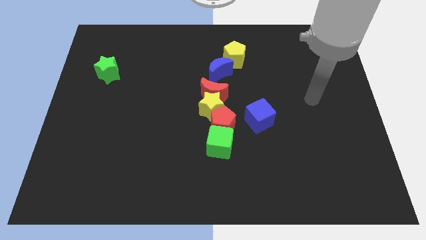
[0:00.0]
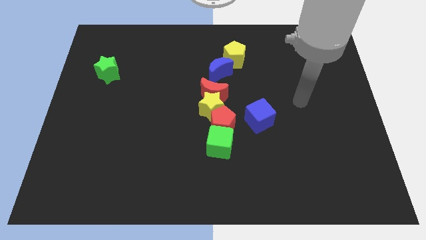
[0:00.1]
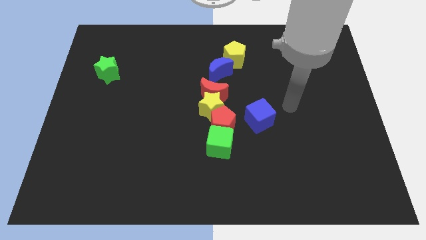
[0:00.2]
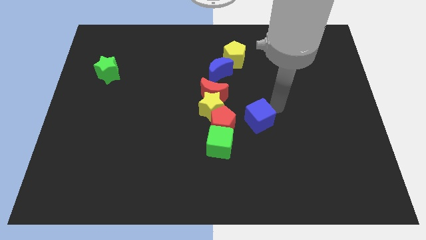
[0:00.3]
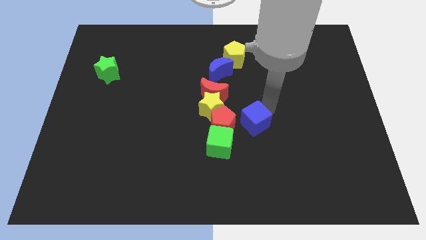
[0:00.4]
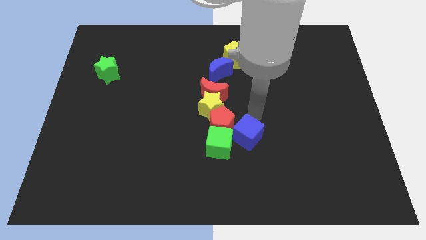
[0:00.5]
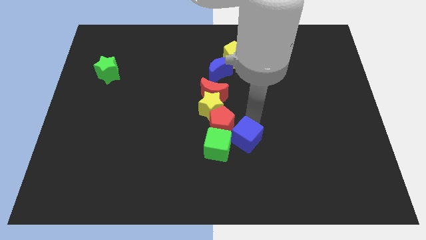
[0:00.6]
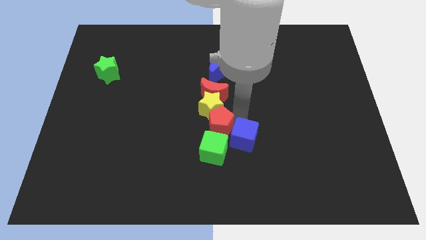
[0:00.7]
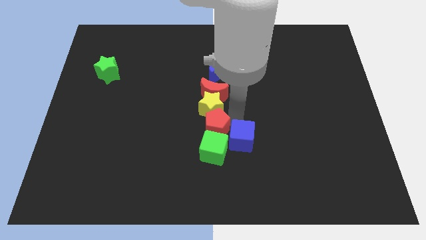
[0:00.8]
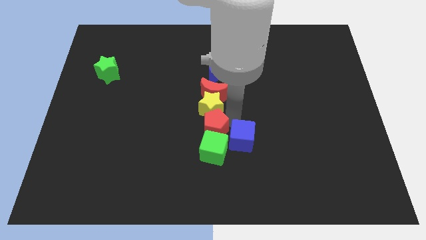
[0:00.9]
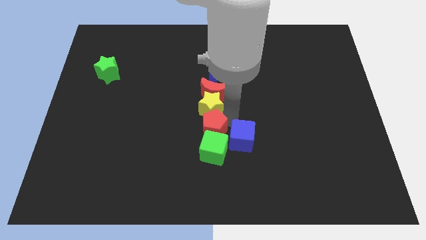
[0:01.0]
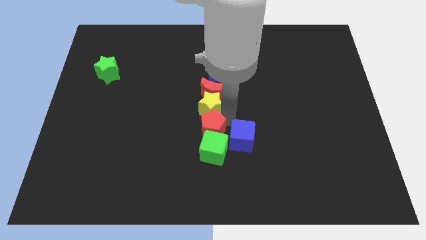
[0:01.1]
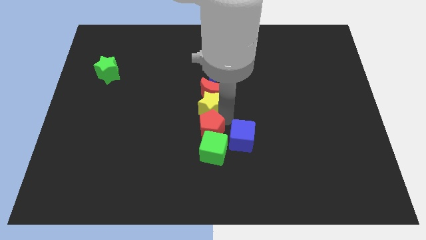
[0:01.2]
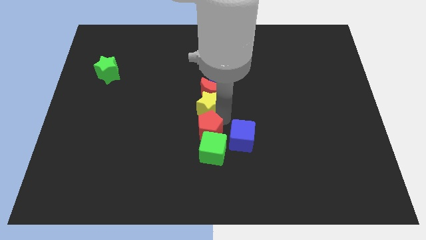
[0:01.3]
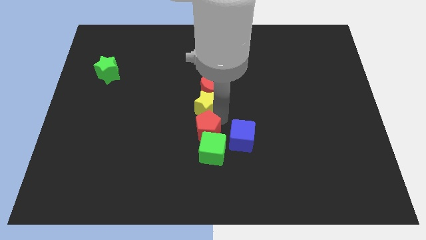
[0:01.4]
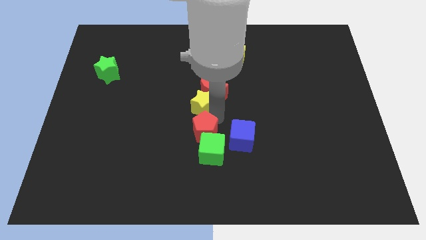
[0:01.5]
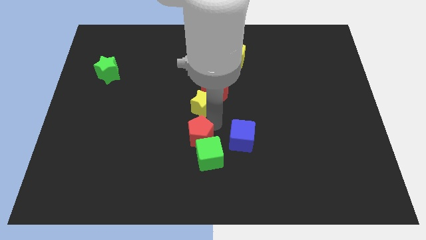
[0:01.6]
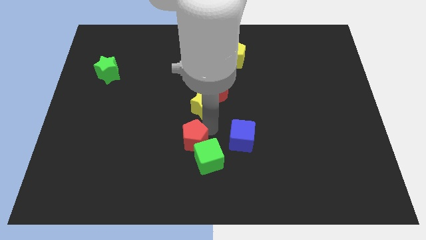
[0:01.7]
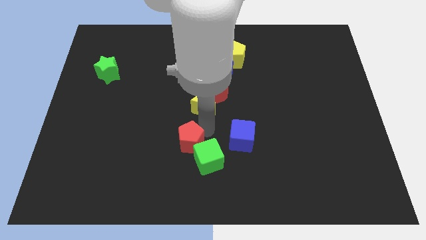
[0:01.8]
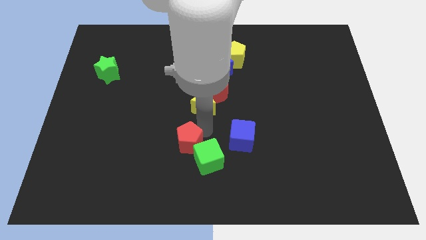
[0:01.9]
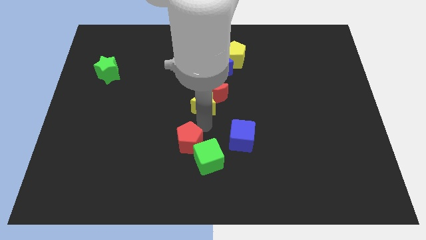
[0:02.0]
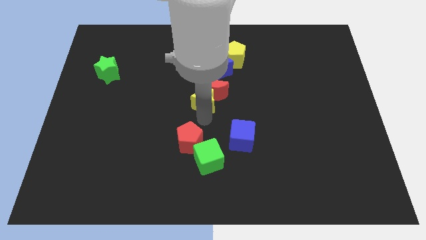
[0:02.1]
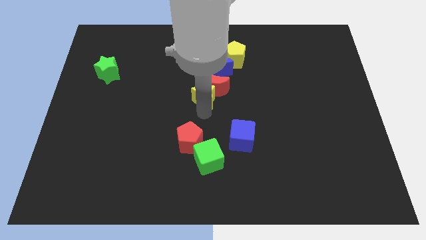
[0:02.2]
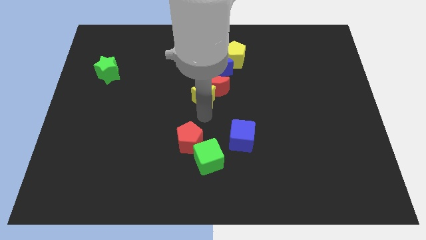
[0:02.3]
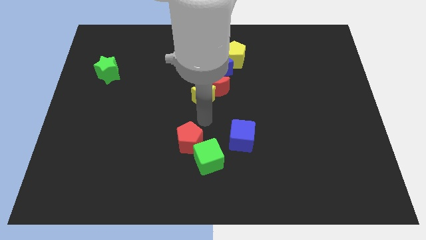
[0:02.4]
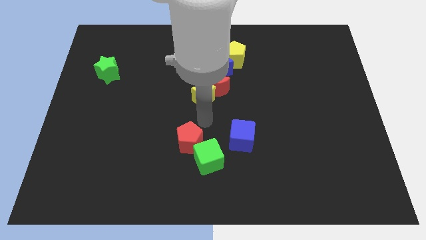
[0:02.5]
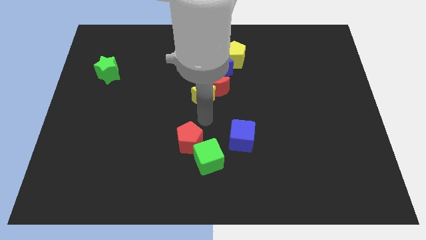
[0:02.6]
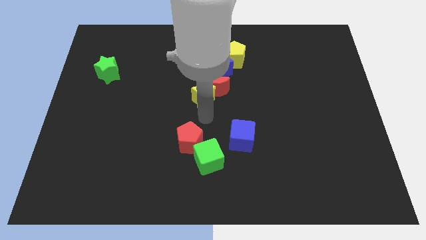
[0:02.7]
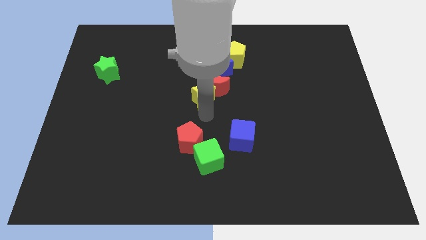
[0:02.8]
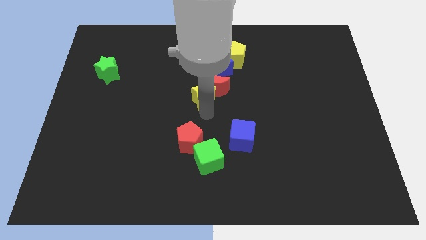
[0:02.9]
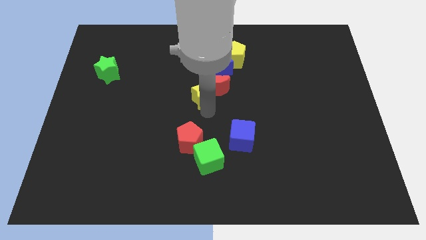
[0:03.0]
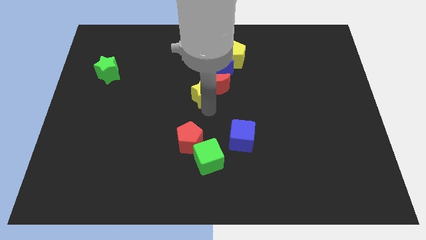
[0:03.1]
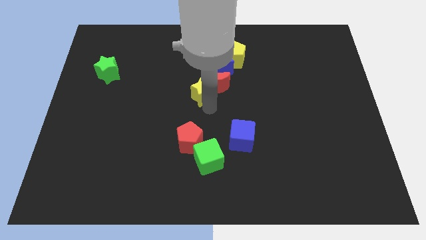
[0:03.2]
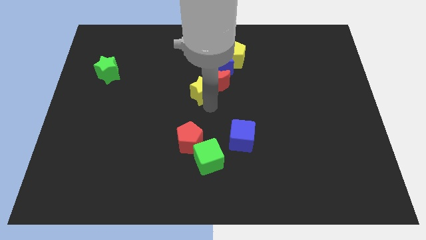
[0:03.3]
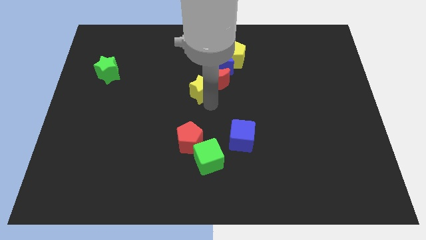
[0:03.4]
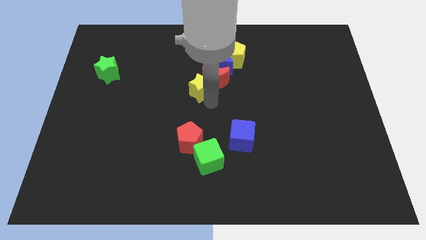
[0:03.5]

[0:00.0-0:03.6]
pull the yellow star apart from the group

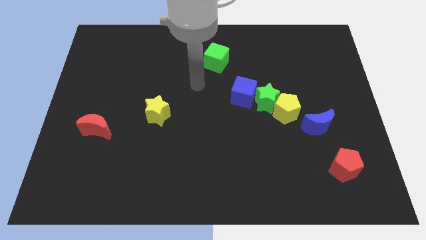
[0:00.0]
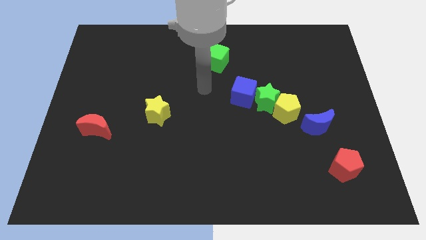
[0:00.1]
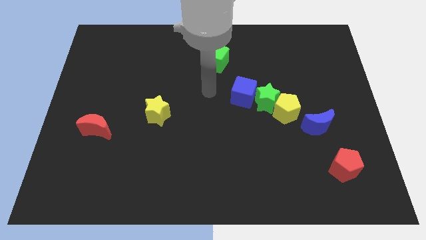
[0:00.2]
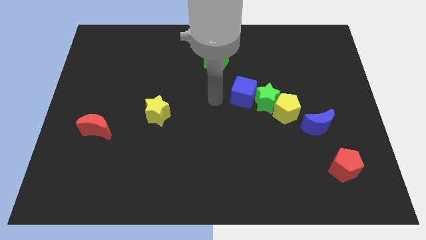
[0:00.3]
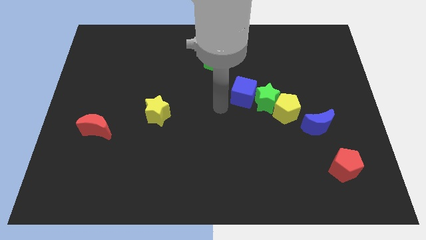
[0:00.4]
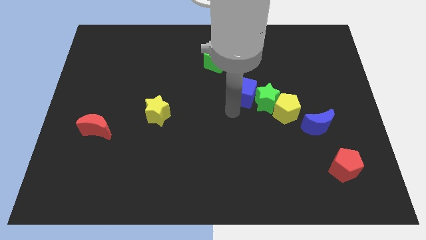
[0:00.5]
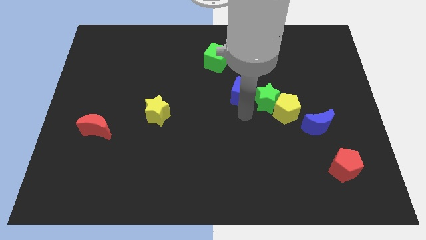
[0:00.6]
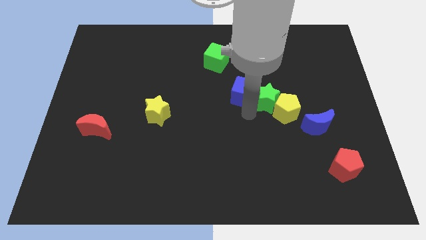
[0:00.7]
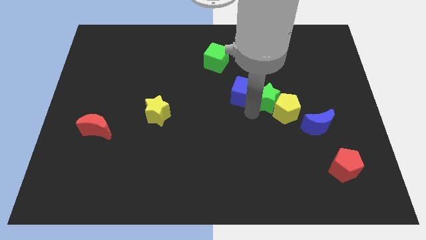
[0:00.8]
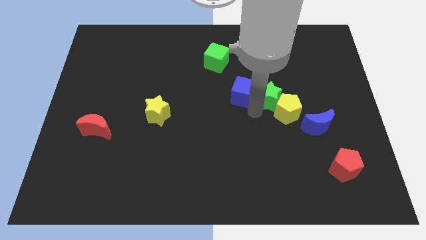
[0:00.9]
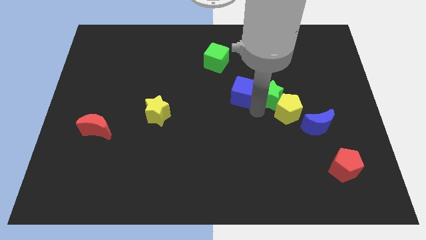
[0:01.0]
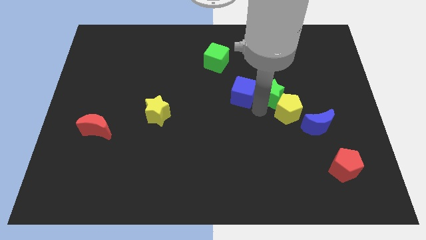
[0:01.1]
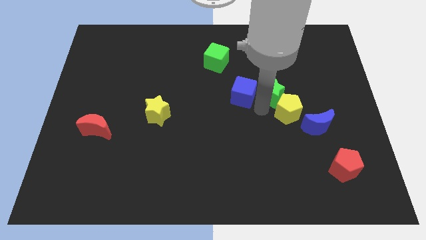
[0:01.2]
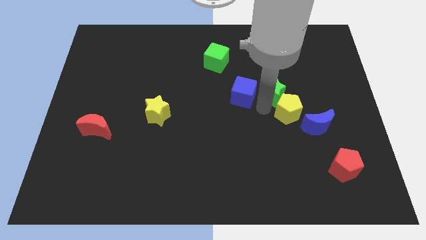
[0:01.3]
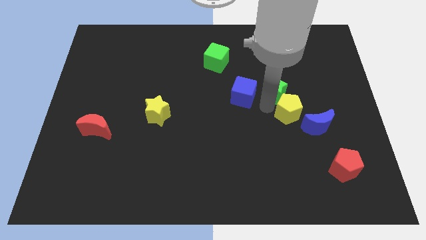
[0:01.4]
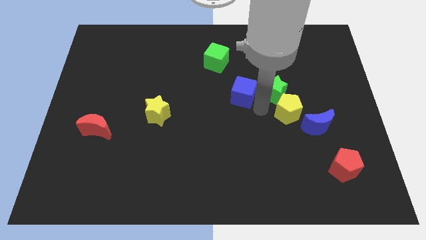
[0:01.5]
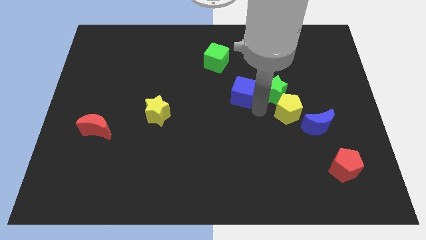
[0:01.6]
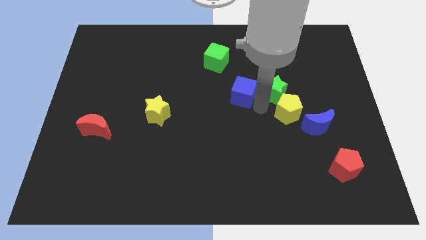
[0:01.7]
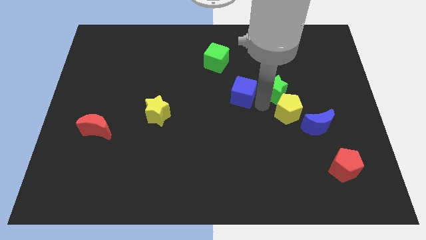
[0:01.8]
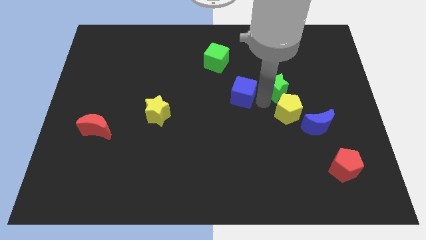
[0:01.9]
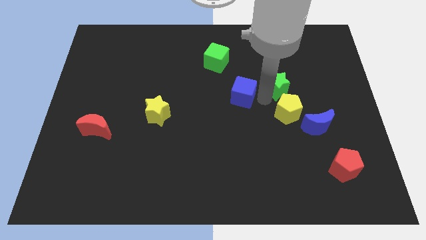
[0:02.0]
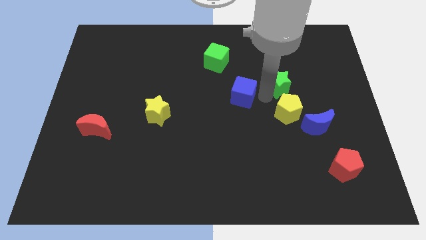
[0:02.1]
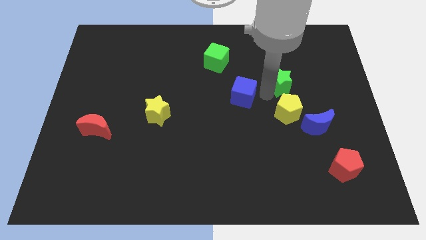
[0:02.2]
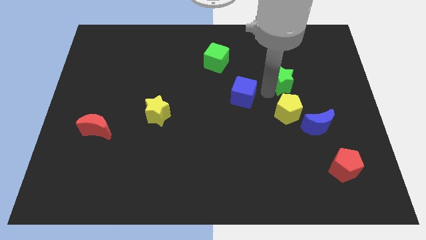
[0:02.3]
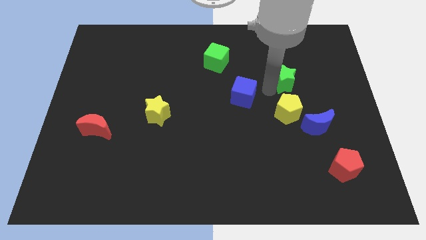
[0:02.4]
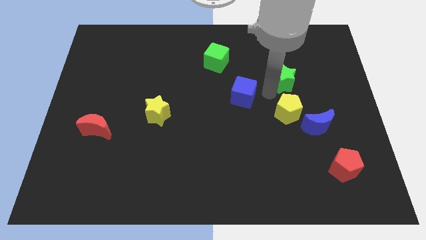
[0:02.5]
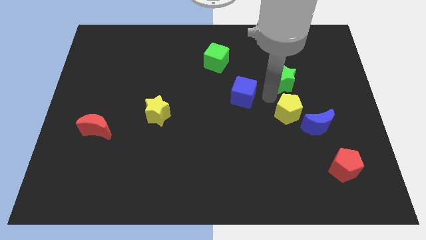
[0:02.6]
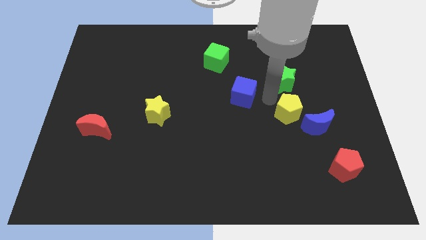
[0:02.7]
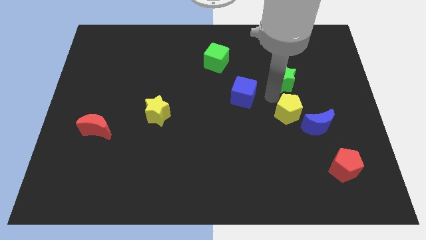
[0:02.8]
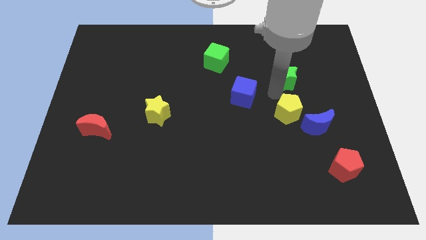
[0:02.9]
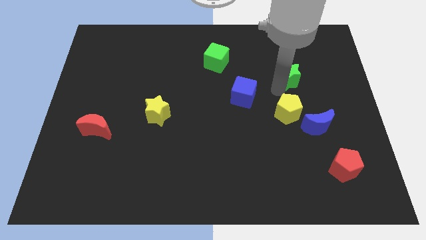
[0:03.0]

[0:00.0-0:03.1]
separate the green star from the yellow pentagon and blue cube

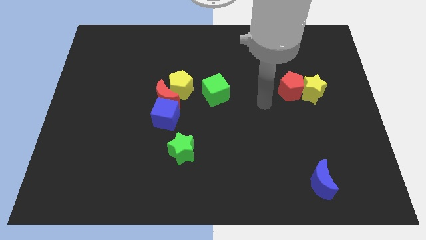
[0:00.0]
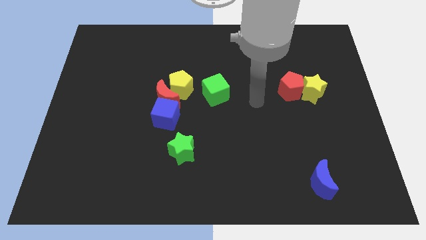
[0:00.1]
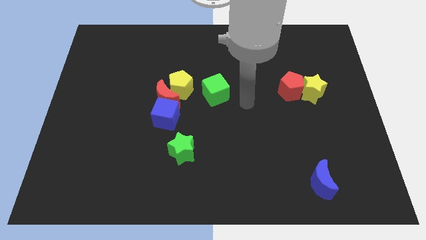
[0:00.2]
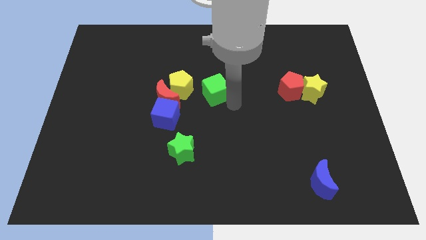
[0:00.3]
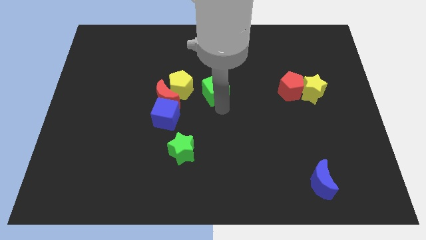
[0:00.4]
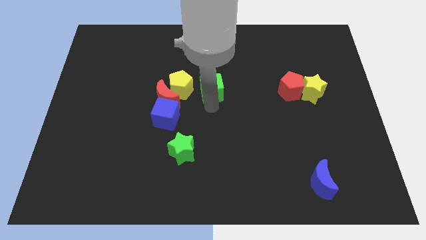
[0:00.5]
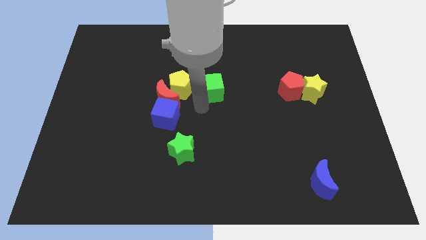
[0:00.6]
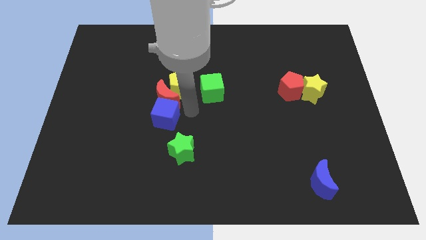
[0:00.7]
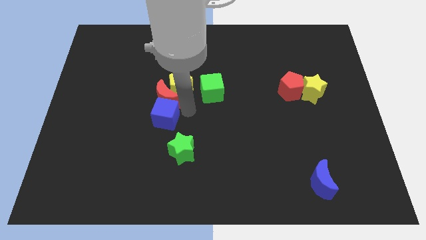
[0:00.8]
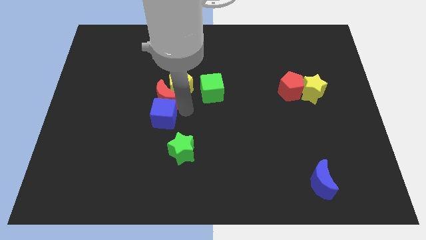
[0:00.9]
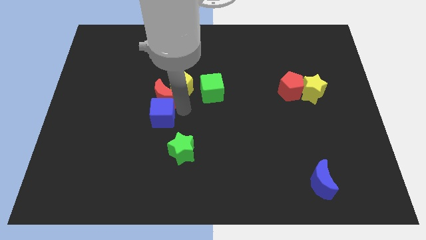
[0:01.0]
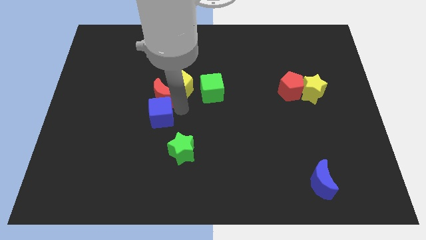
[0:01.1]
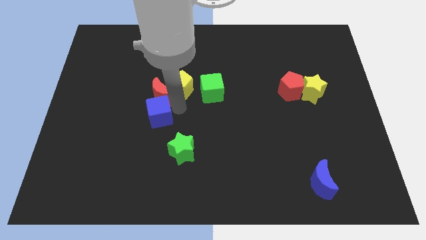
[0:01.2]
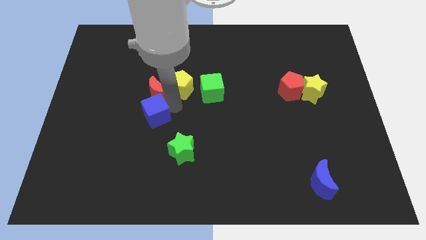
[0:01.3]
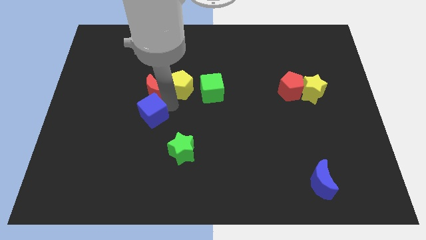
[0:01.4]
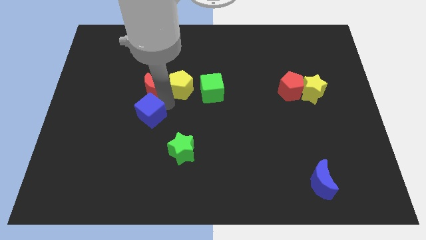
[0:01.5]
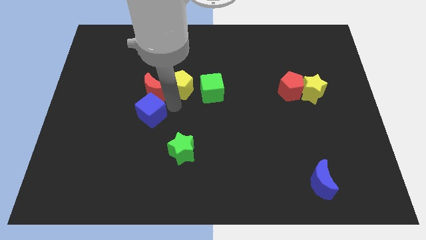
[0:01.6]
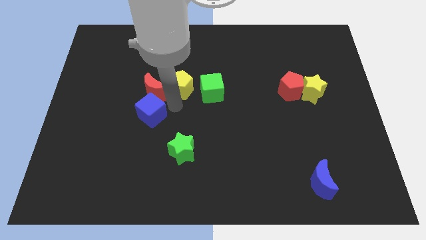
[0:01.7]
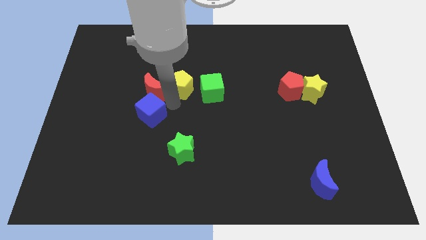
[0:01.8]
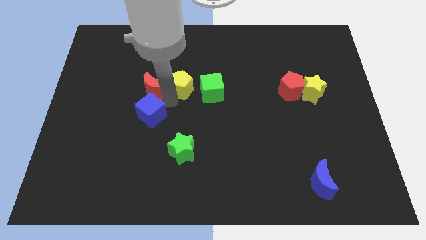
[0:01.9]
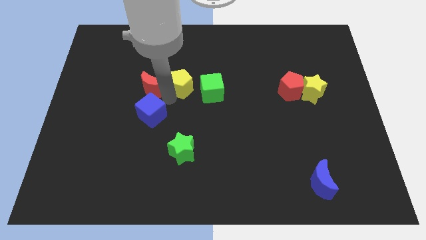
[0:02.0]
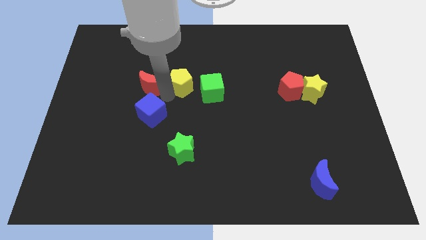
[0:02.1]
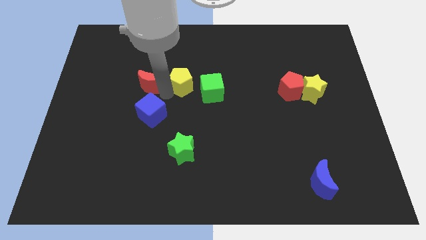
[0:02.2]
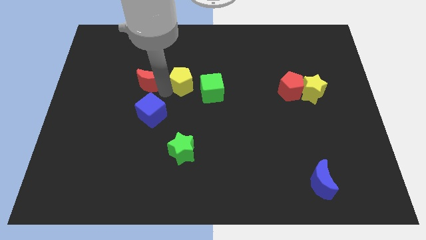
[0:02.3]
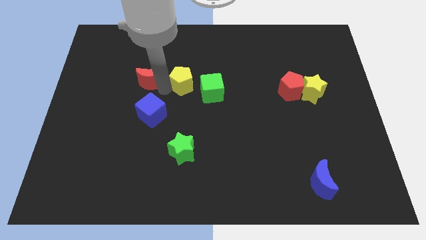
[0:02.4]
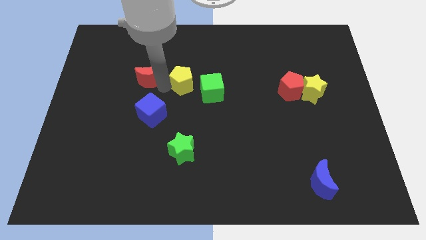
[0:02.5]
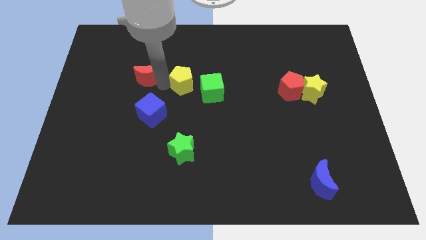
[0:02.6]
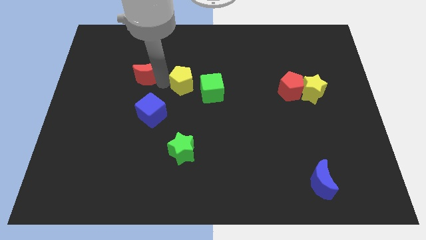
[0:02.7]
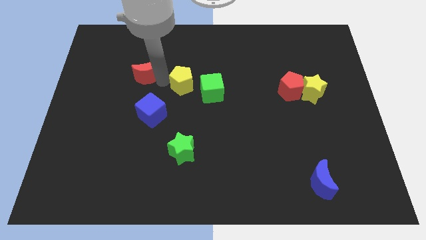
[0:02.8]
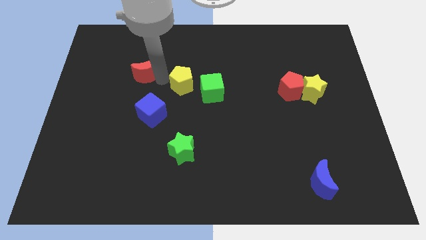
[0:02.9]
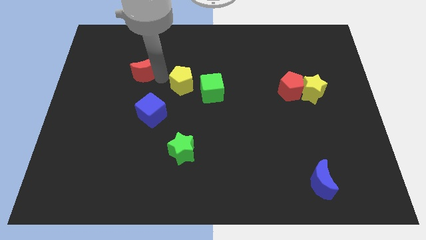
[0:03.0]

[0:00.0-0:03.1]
pull the red moon apart from the yellow pentagon and blue cube
